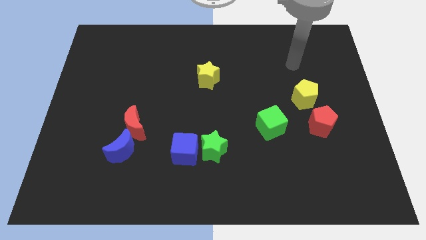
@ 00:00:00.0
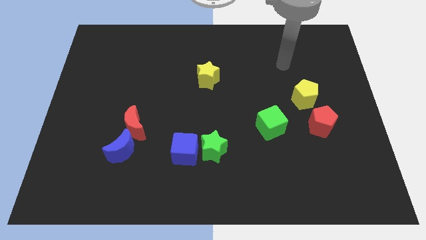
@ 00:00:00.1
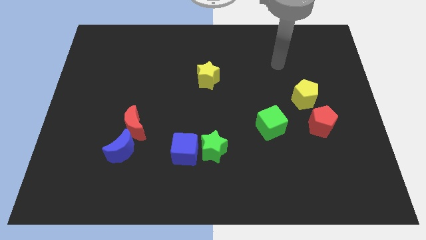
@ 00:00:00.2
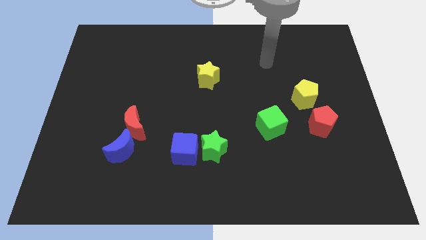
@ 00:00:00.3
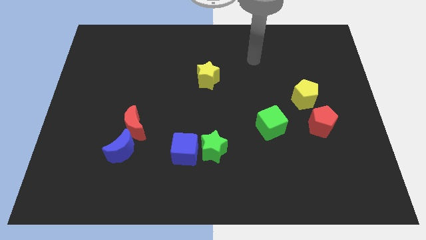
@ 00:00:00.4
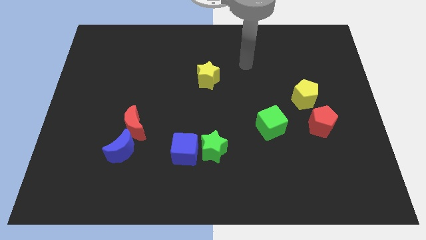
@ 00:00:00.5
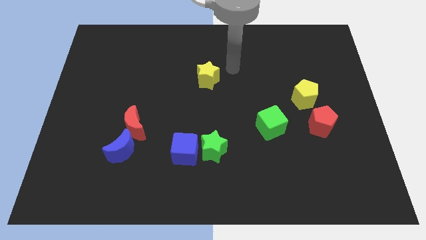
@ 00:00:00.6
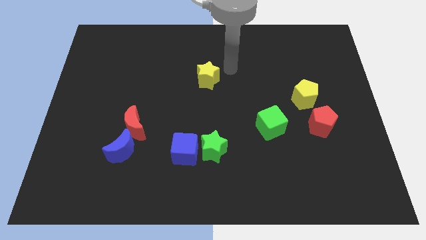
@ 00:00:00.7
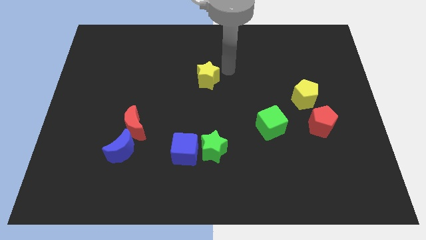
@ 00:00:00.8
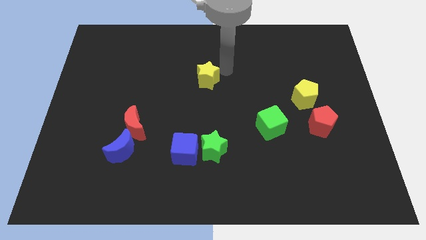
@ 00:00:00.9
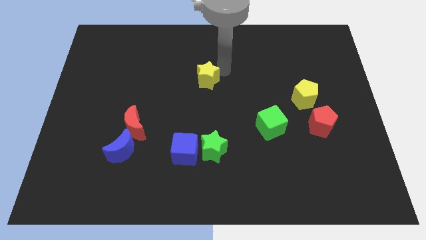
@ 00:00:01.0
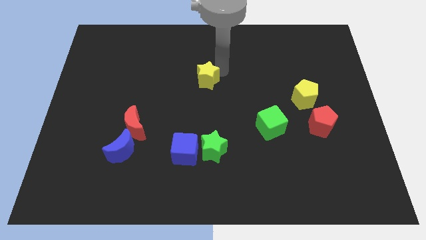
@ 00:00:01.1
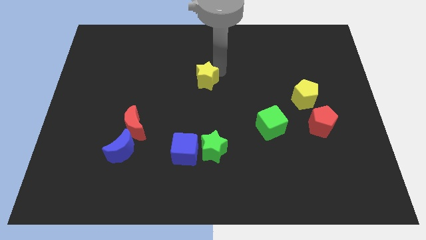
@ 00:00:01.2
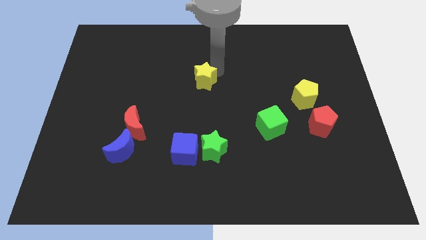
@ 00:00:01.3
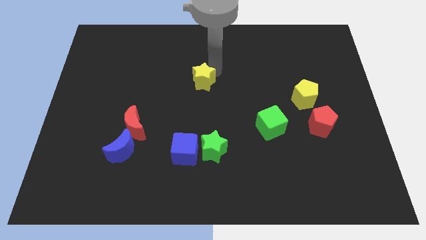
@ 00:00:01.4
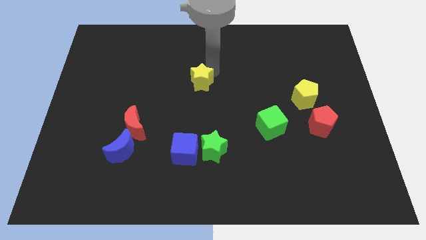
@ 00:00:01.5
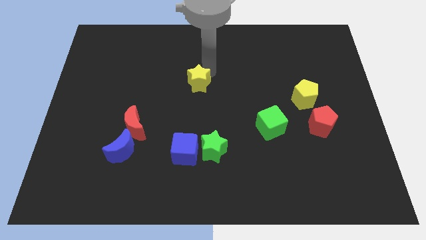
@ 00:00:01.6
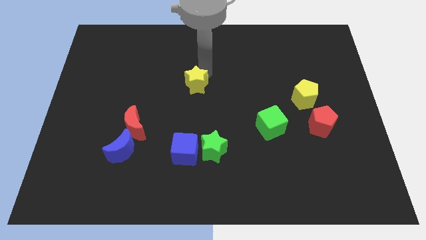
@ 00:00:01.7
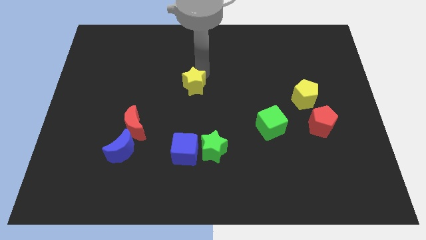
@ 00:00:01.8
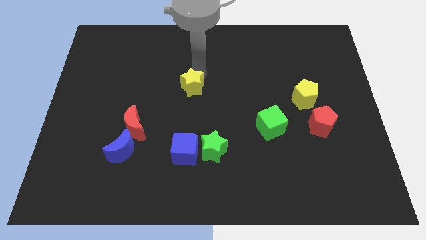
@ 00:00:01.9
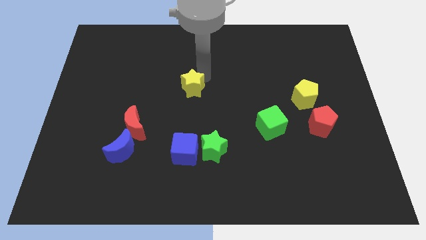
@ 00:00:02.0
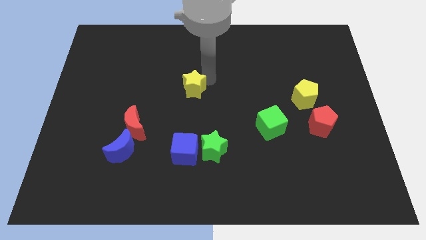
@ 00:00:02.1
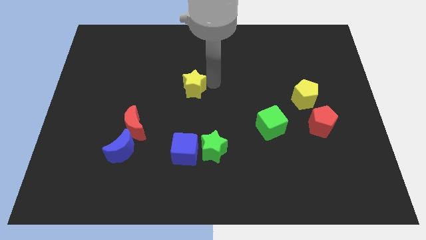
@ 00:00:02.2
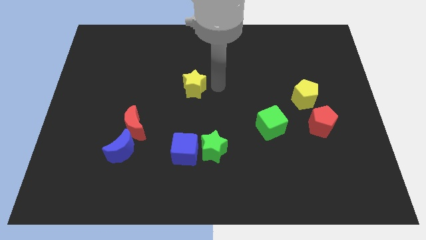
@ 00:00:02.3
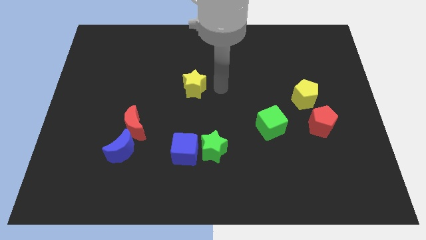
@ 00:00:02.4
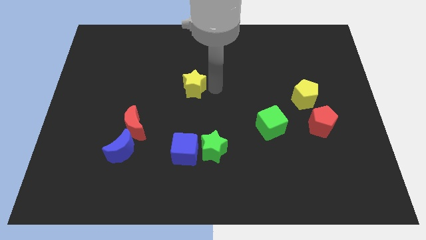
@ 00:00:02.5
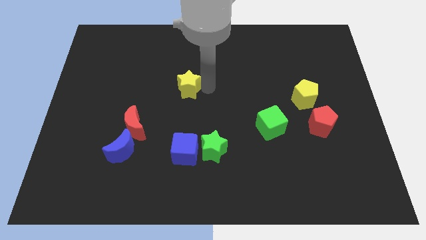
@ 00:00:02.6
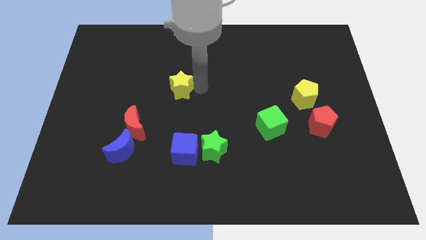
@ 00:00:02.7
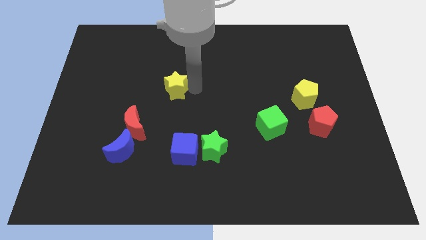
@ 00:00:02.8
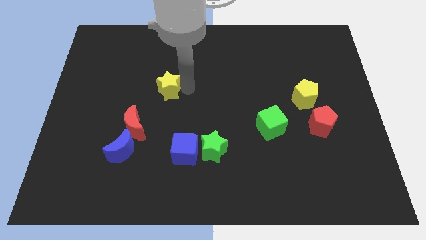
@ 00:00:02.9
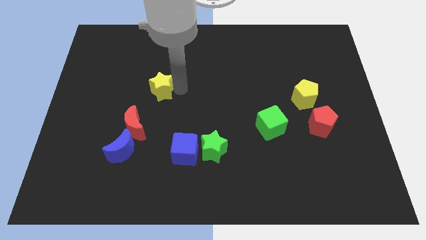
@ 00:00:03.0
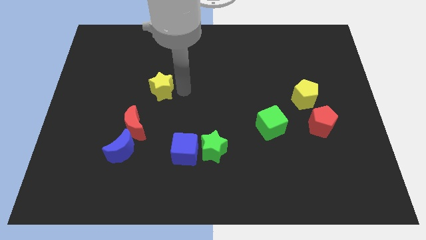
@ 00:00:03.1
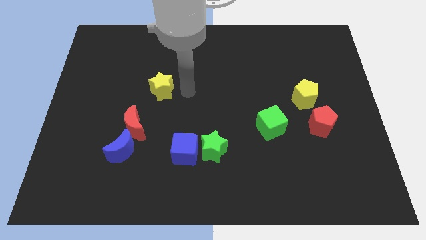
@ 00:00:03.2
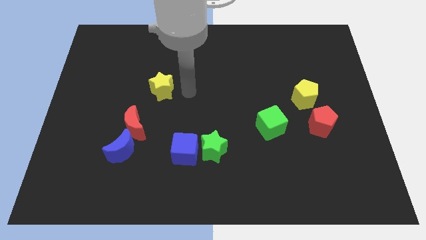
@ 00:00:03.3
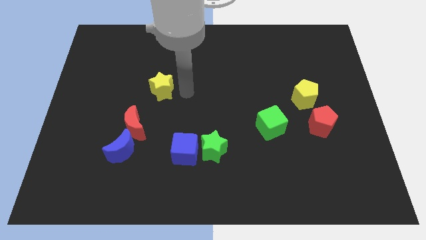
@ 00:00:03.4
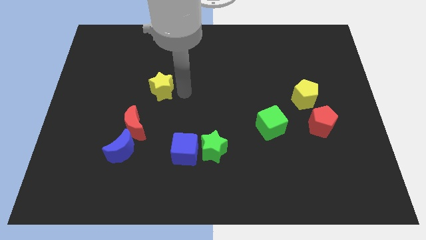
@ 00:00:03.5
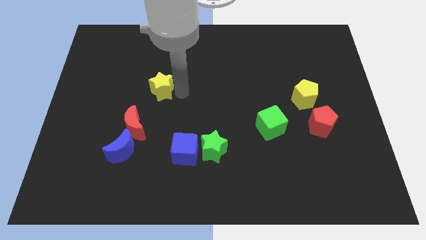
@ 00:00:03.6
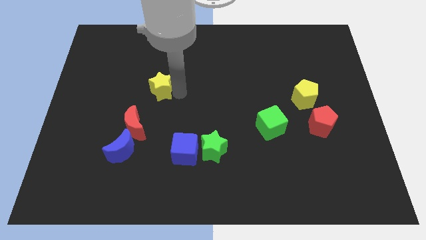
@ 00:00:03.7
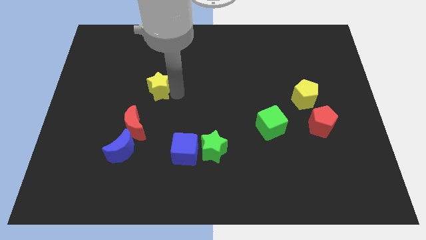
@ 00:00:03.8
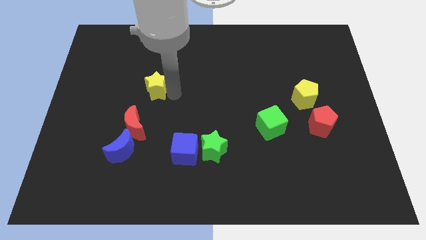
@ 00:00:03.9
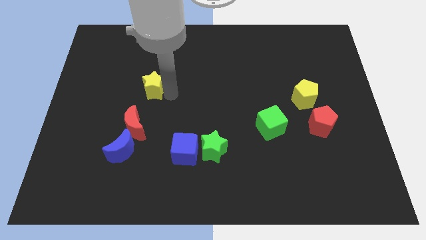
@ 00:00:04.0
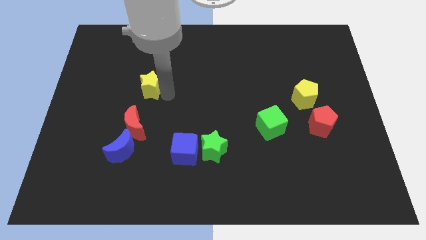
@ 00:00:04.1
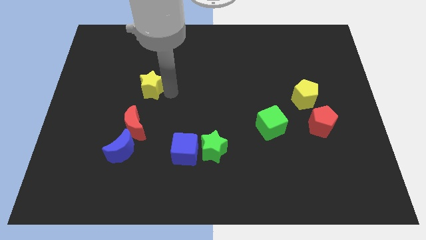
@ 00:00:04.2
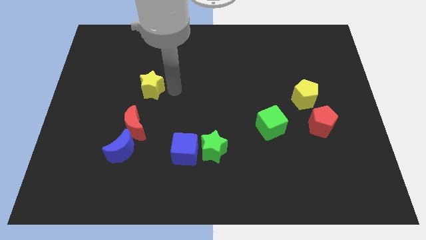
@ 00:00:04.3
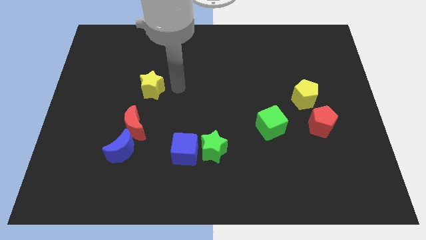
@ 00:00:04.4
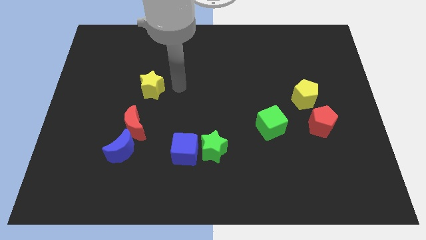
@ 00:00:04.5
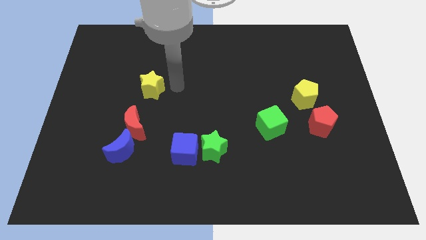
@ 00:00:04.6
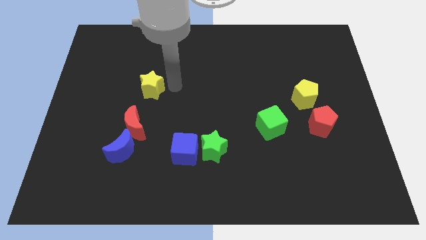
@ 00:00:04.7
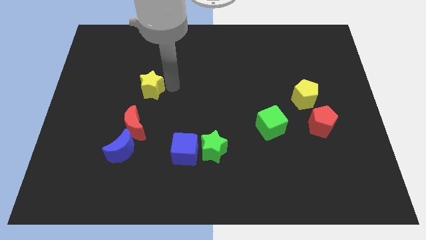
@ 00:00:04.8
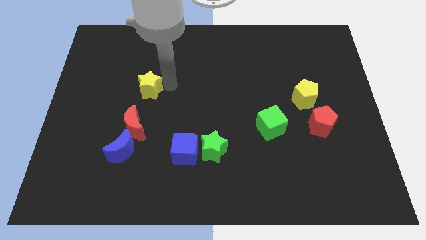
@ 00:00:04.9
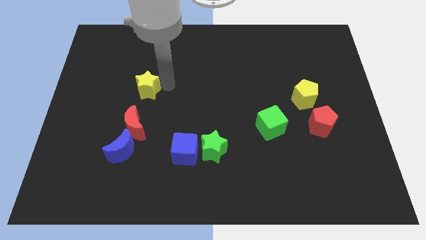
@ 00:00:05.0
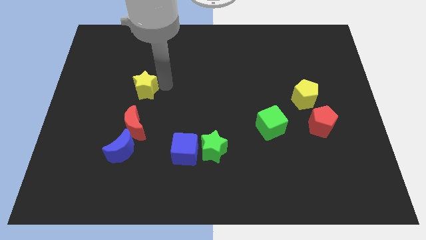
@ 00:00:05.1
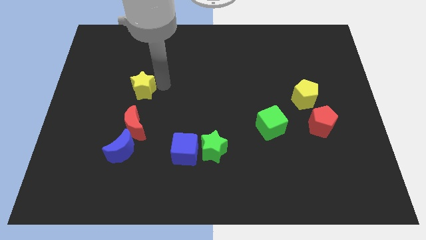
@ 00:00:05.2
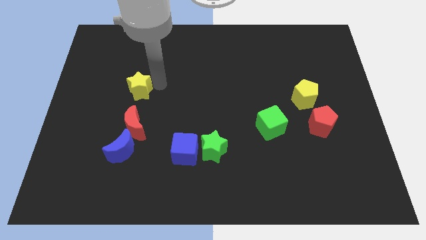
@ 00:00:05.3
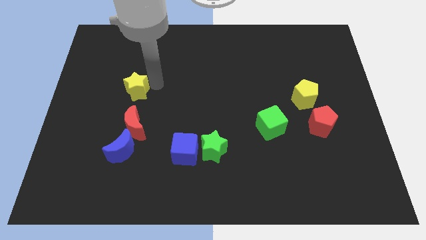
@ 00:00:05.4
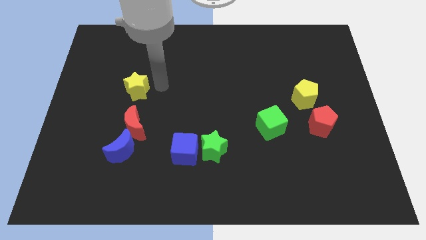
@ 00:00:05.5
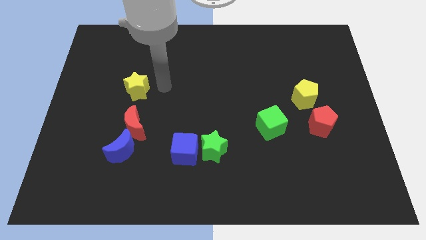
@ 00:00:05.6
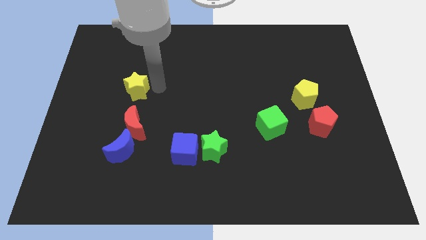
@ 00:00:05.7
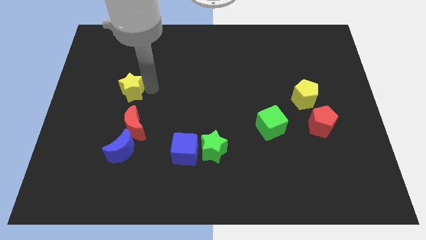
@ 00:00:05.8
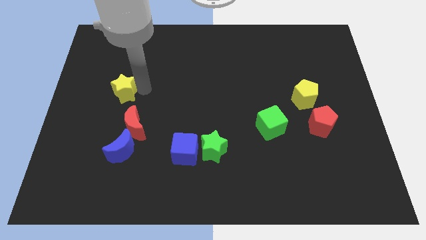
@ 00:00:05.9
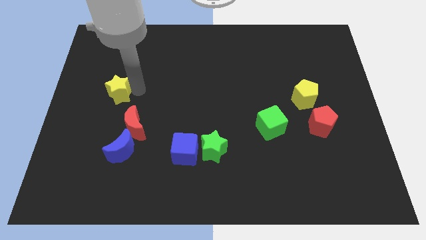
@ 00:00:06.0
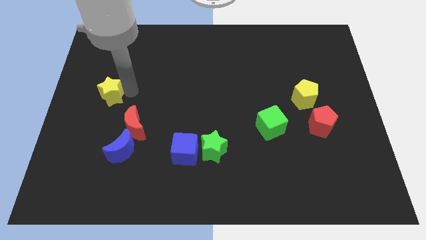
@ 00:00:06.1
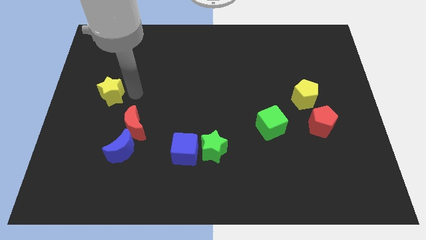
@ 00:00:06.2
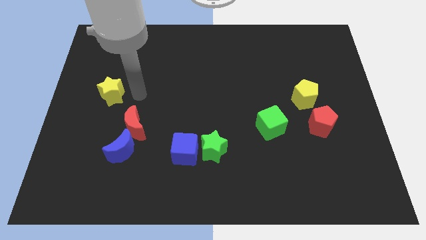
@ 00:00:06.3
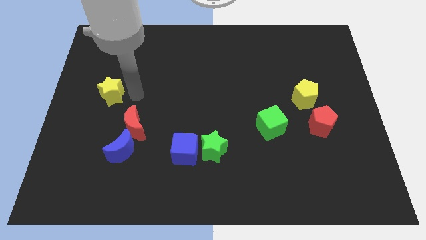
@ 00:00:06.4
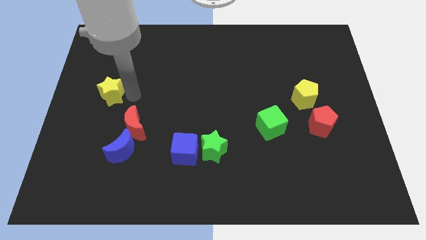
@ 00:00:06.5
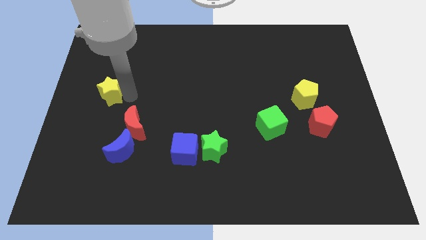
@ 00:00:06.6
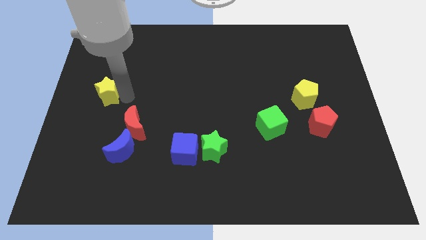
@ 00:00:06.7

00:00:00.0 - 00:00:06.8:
put the yellow star to the left side
